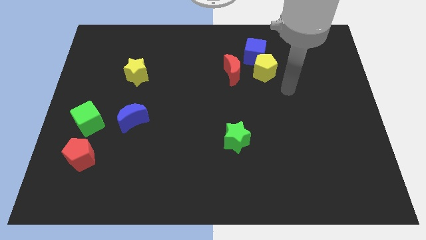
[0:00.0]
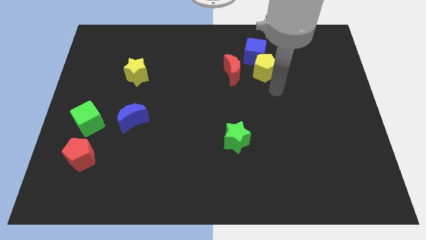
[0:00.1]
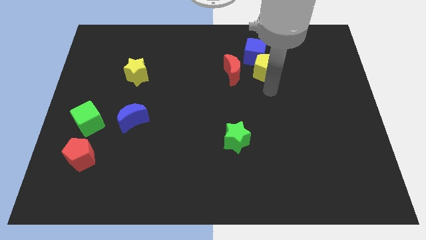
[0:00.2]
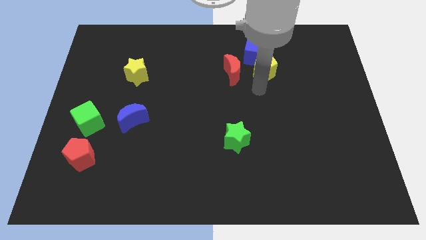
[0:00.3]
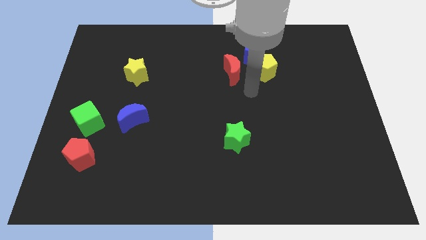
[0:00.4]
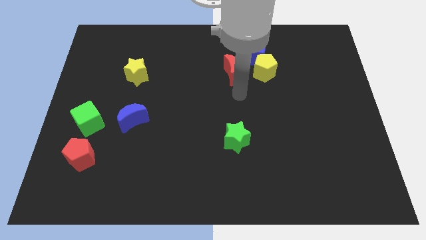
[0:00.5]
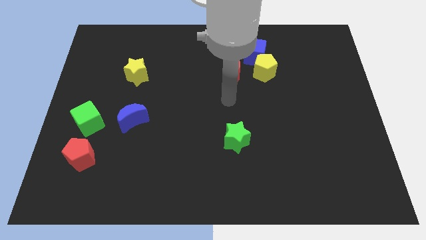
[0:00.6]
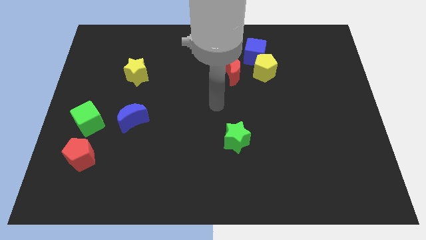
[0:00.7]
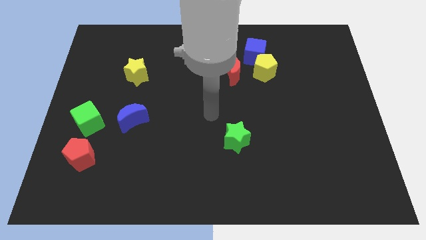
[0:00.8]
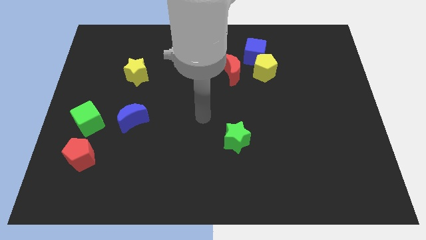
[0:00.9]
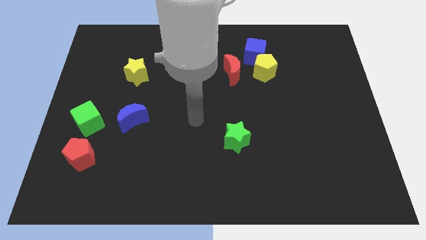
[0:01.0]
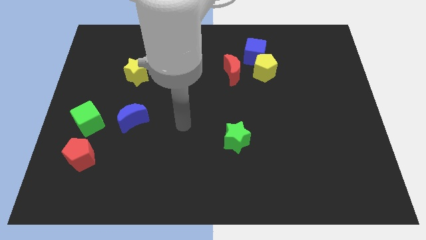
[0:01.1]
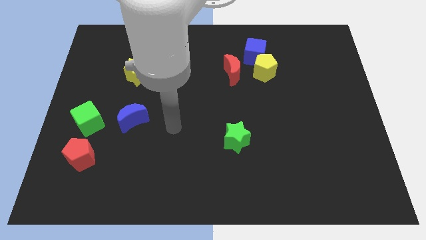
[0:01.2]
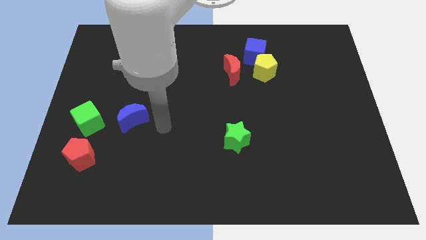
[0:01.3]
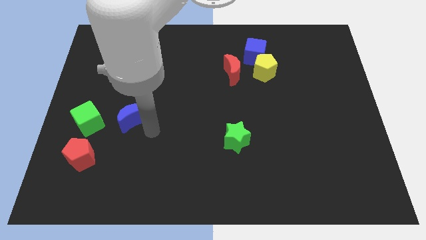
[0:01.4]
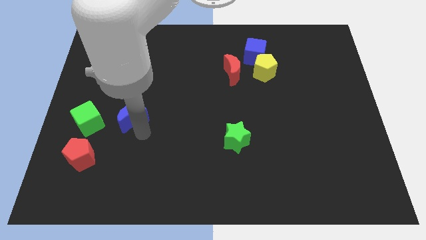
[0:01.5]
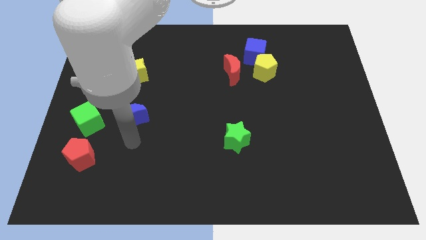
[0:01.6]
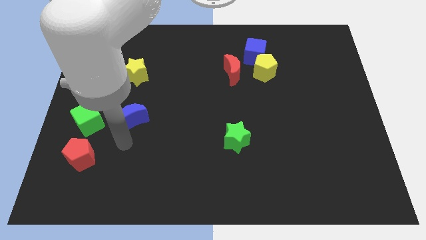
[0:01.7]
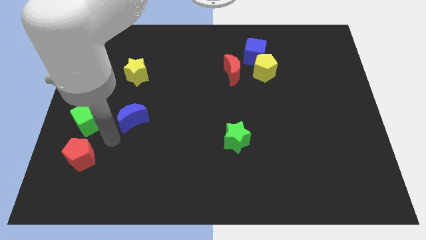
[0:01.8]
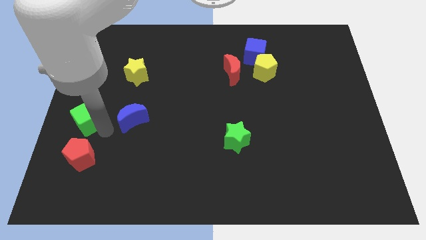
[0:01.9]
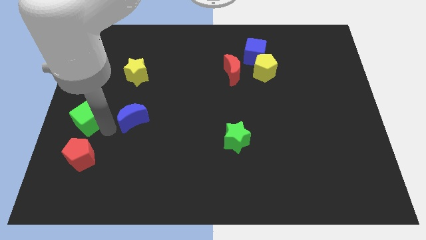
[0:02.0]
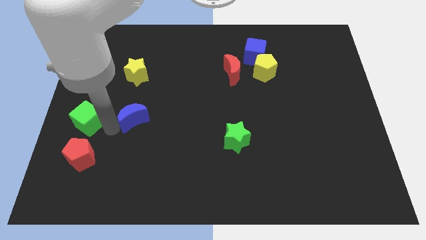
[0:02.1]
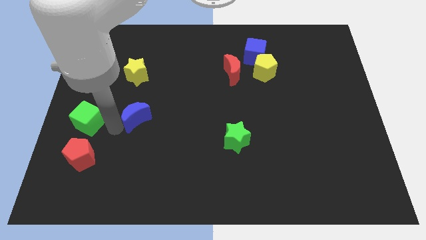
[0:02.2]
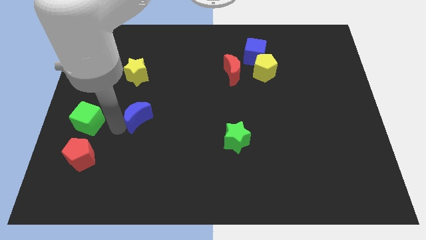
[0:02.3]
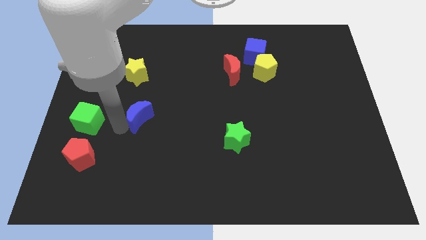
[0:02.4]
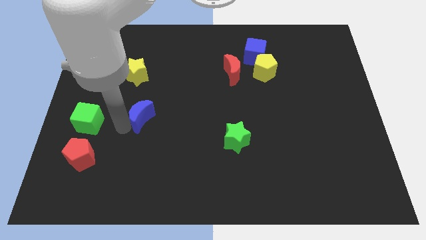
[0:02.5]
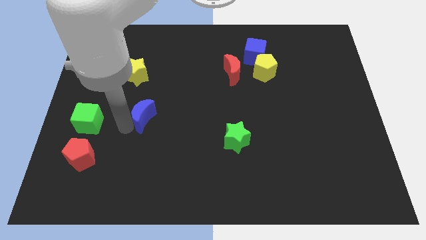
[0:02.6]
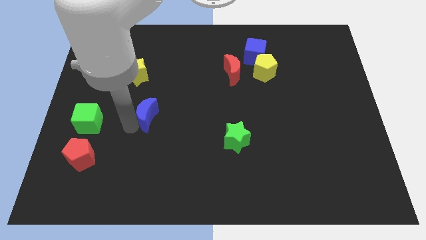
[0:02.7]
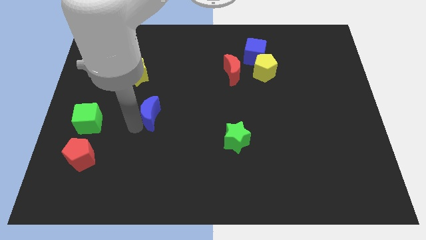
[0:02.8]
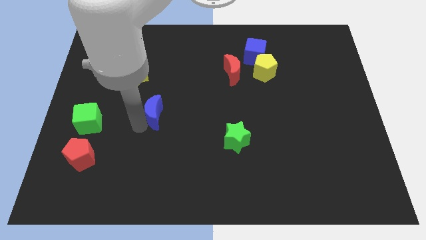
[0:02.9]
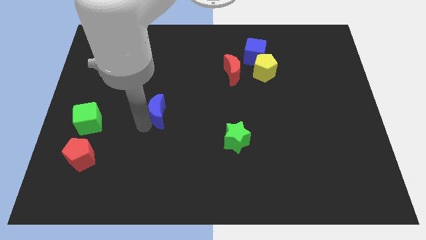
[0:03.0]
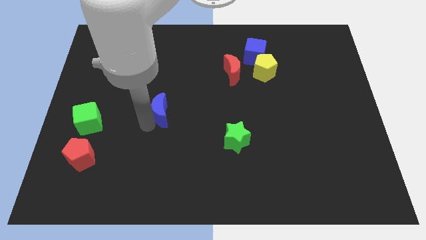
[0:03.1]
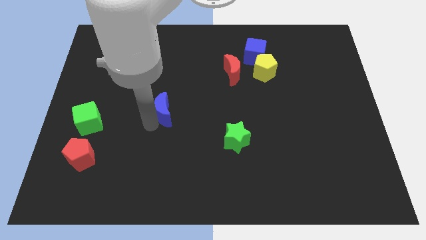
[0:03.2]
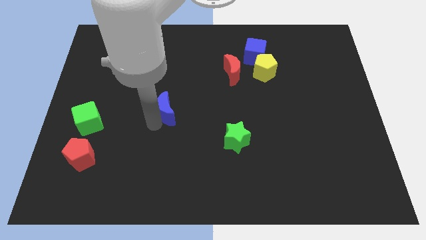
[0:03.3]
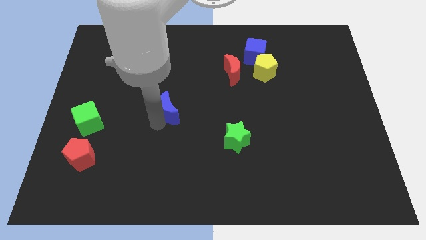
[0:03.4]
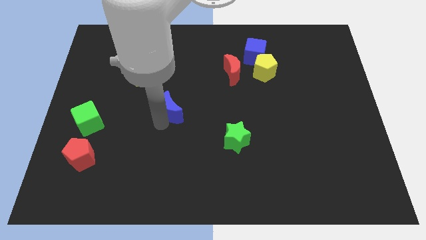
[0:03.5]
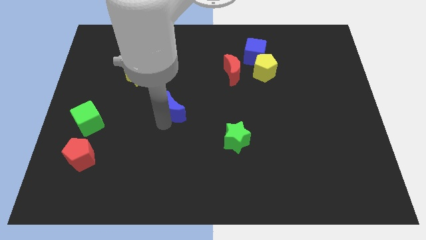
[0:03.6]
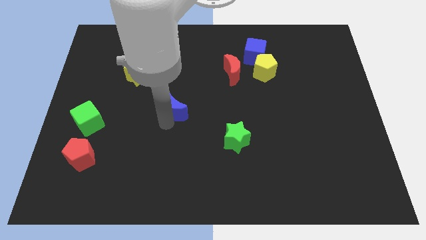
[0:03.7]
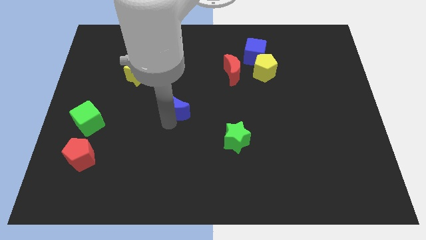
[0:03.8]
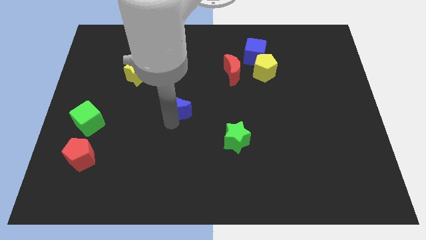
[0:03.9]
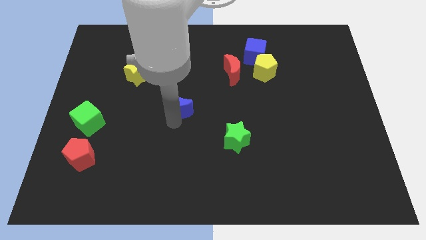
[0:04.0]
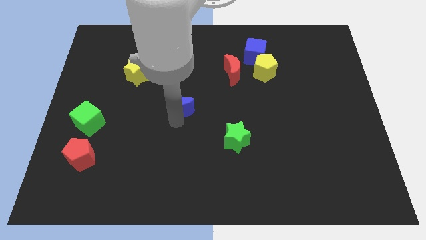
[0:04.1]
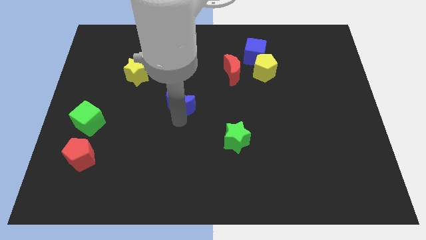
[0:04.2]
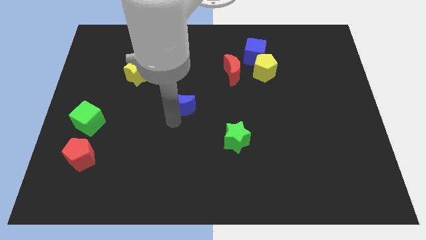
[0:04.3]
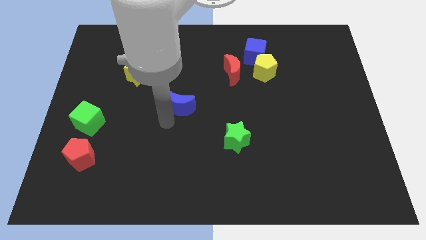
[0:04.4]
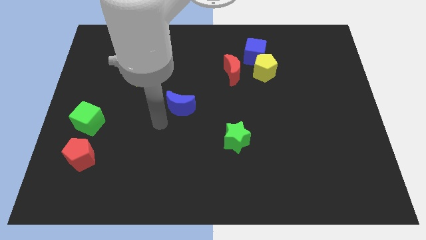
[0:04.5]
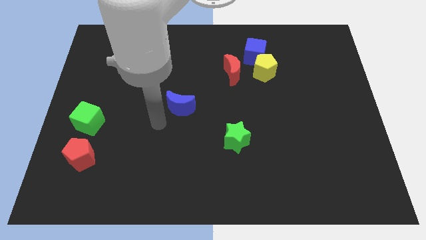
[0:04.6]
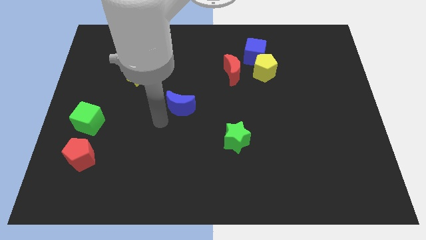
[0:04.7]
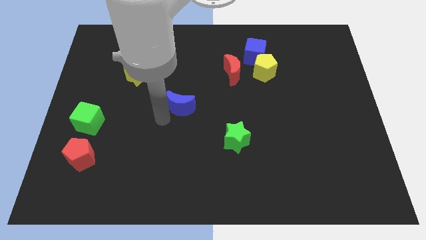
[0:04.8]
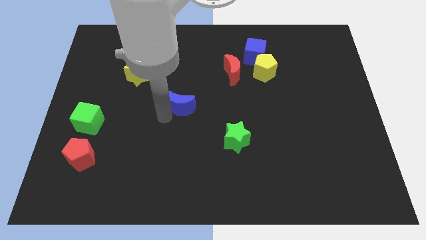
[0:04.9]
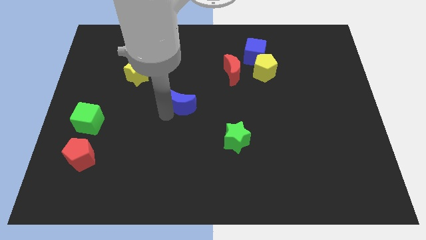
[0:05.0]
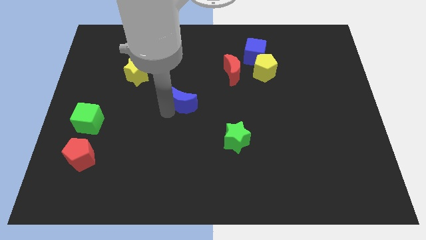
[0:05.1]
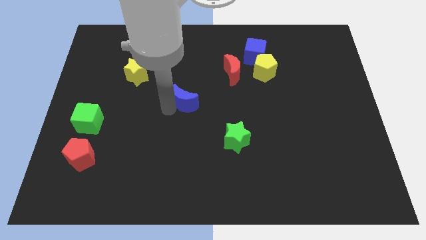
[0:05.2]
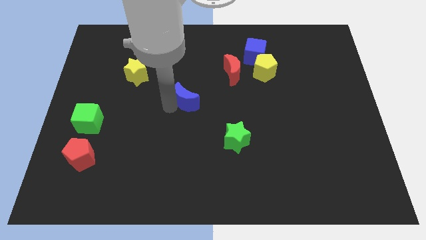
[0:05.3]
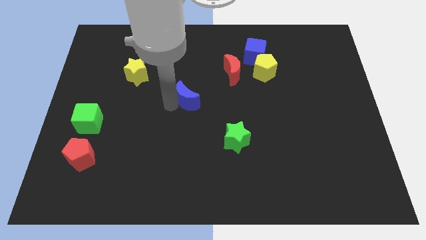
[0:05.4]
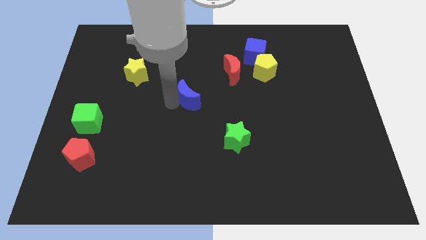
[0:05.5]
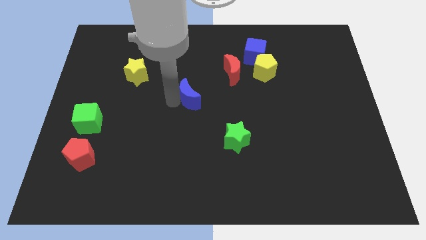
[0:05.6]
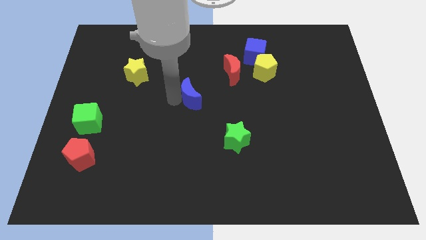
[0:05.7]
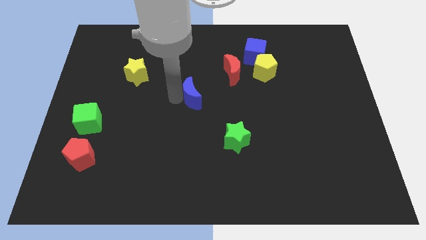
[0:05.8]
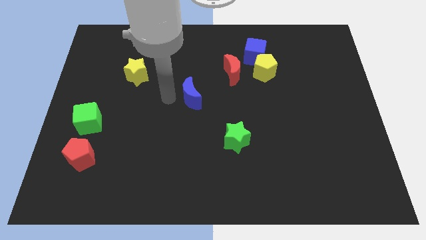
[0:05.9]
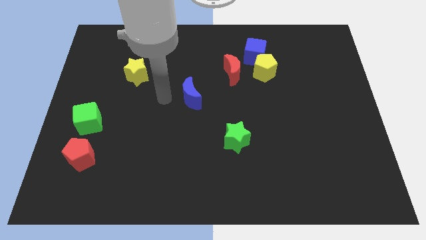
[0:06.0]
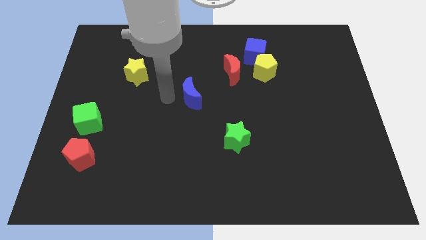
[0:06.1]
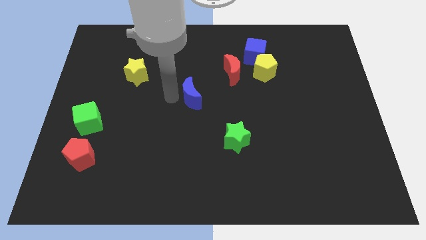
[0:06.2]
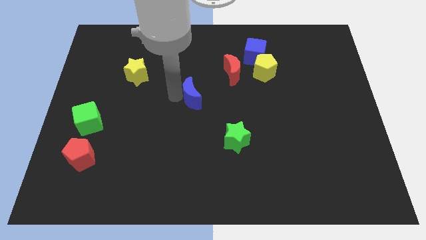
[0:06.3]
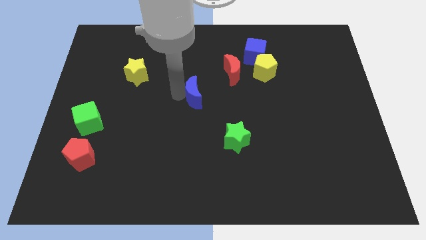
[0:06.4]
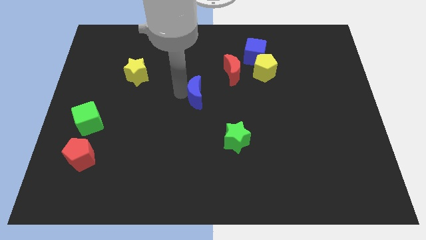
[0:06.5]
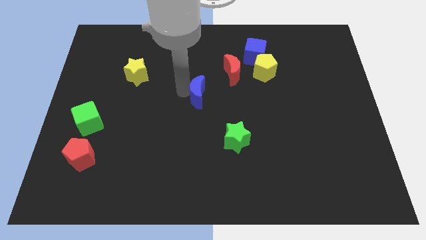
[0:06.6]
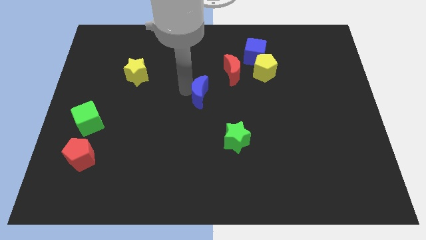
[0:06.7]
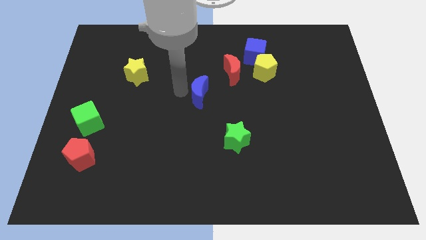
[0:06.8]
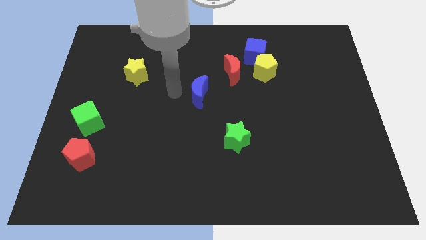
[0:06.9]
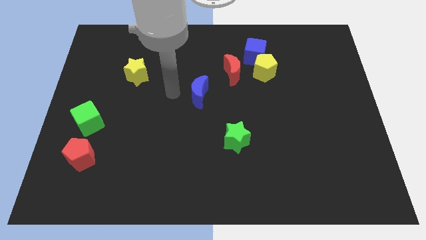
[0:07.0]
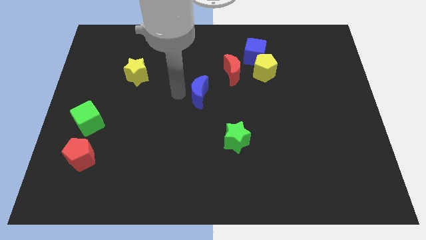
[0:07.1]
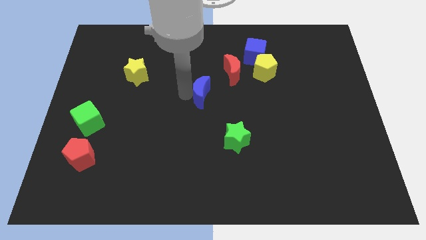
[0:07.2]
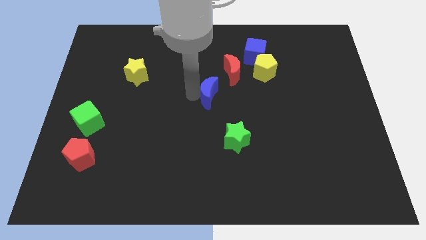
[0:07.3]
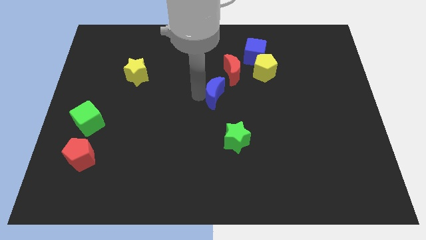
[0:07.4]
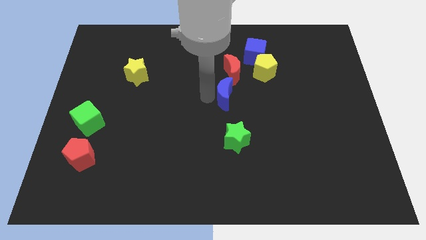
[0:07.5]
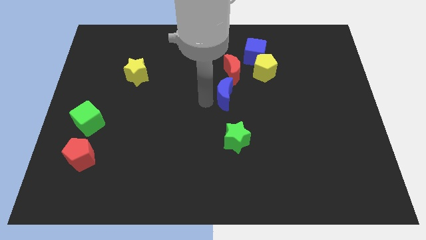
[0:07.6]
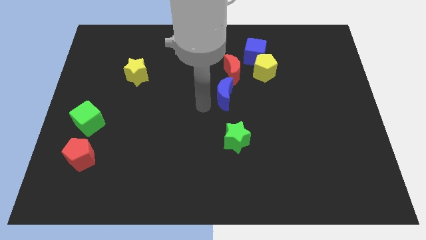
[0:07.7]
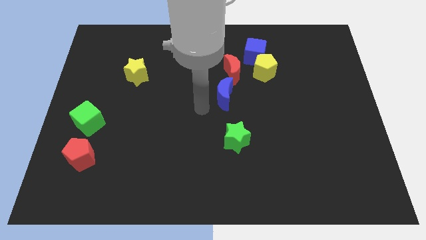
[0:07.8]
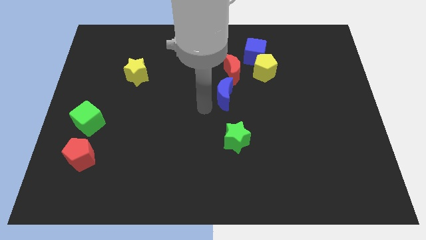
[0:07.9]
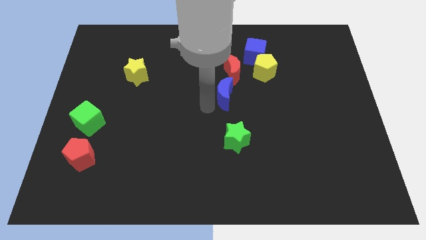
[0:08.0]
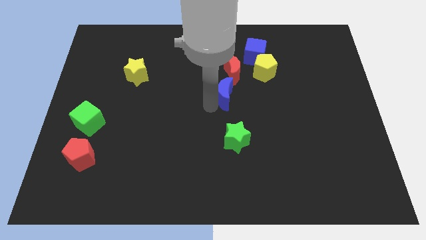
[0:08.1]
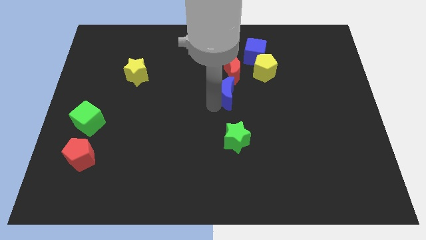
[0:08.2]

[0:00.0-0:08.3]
put the blue moon to the bottom left of the yellow pentagon
